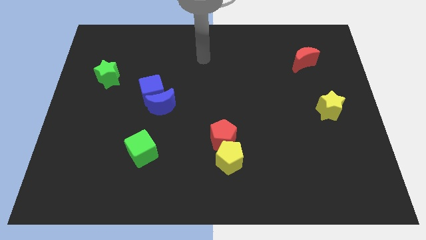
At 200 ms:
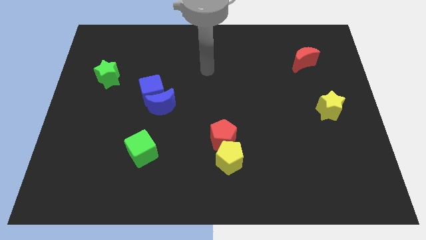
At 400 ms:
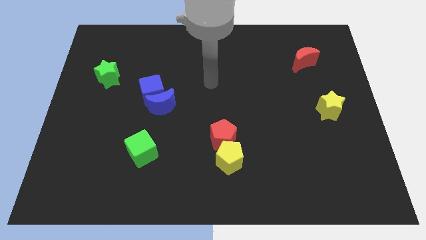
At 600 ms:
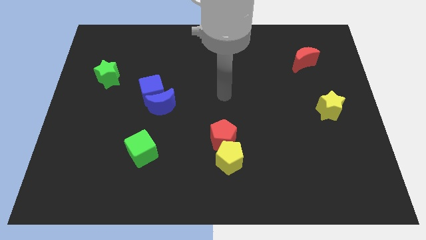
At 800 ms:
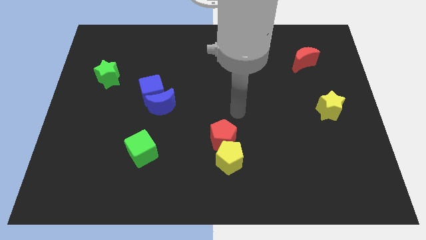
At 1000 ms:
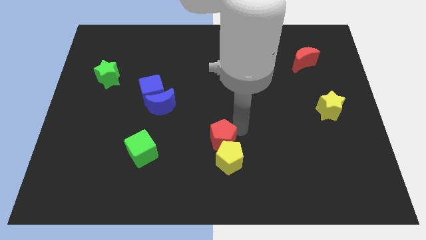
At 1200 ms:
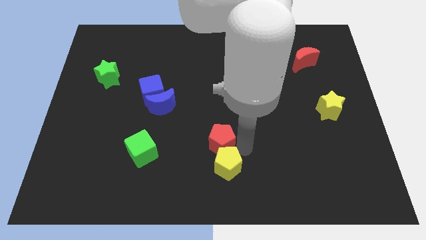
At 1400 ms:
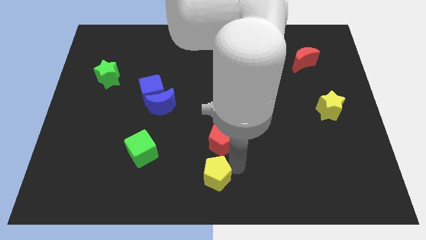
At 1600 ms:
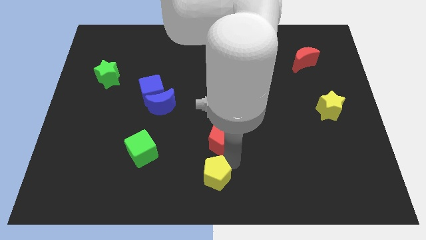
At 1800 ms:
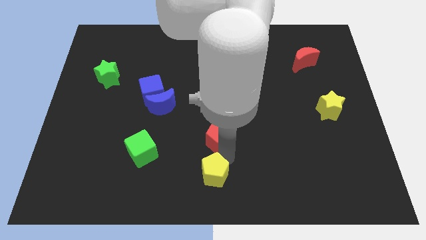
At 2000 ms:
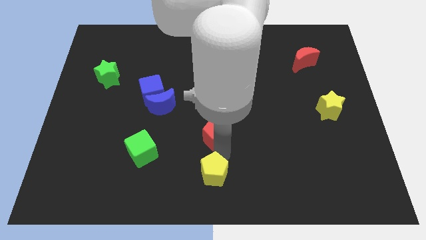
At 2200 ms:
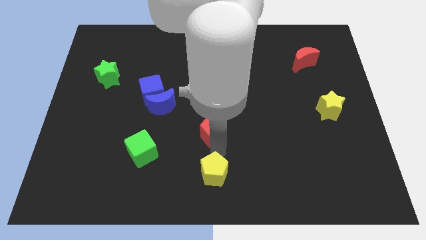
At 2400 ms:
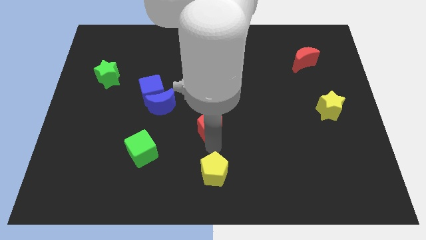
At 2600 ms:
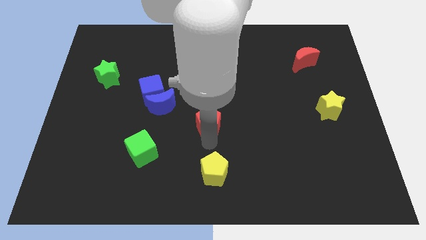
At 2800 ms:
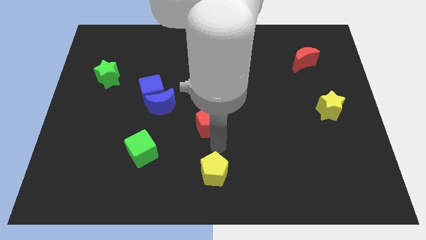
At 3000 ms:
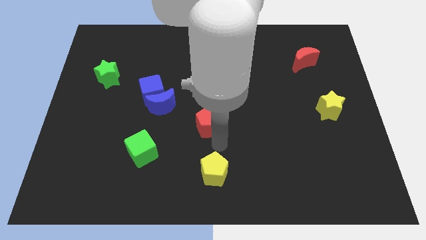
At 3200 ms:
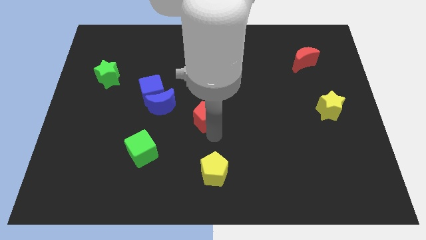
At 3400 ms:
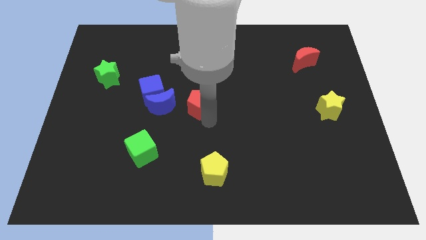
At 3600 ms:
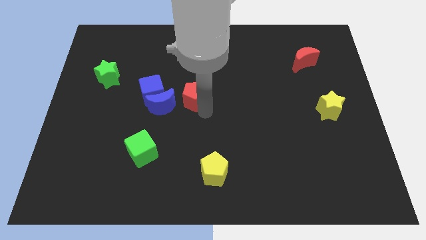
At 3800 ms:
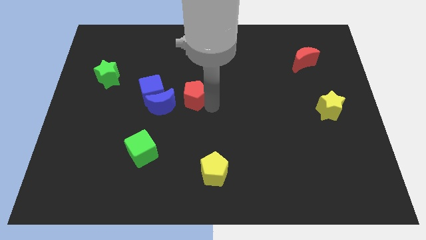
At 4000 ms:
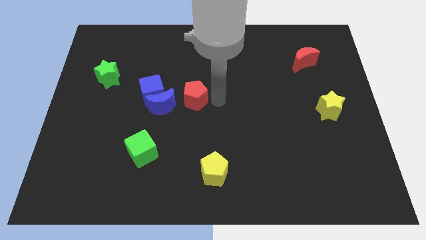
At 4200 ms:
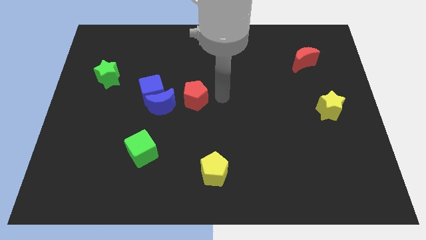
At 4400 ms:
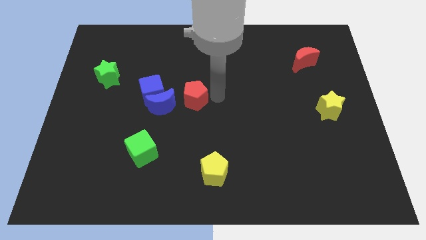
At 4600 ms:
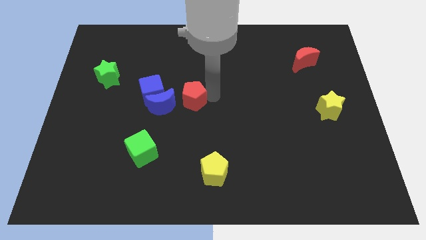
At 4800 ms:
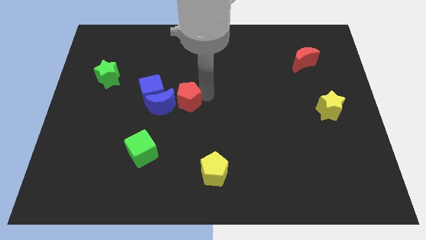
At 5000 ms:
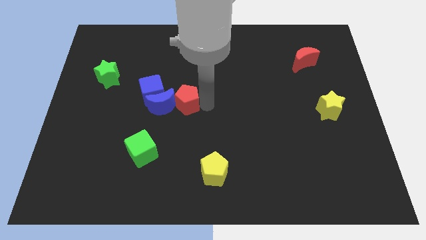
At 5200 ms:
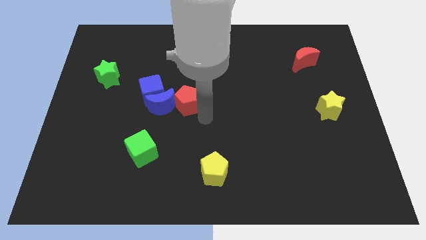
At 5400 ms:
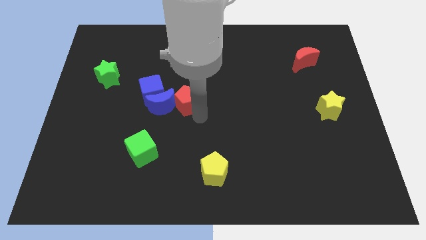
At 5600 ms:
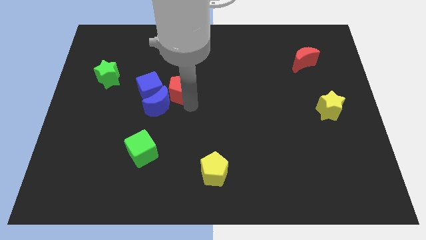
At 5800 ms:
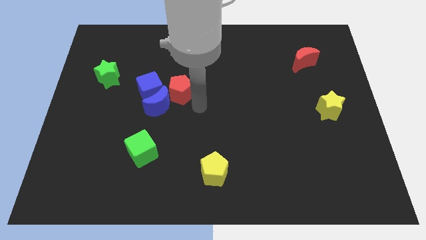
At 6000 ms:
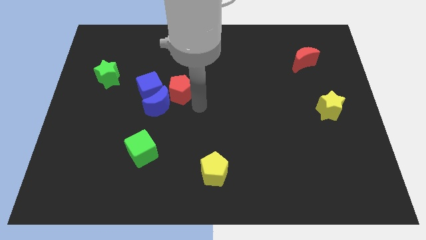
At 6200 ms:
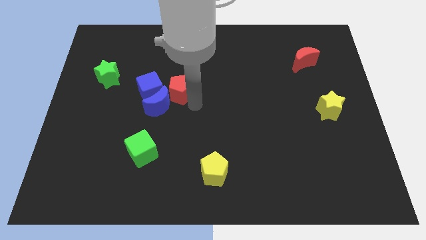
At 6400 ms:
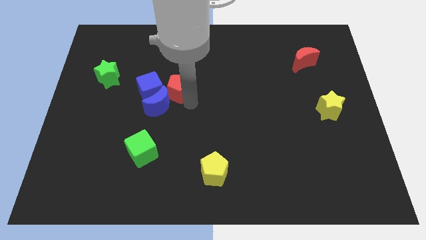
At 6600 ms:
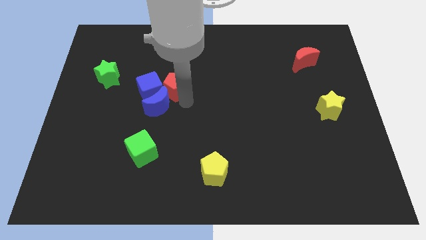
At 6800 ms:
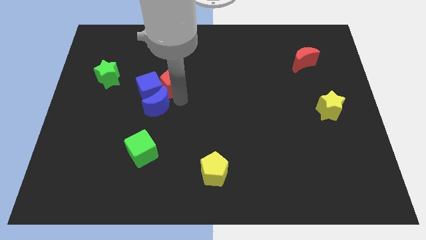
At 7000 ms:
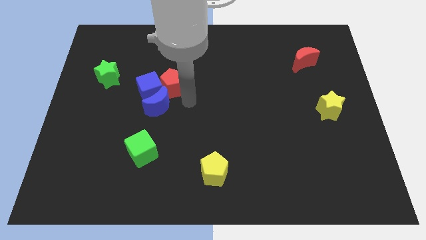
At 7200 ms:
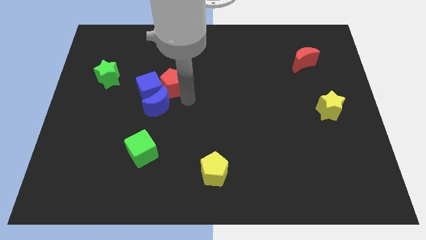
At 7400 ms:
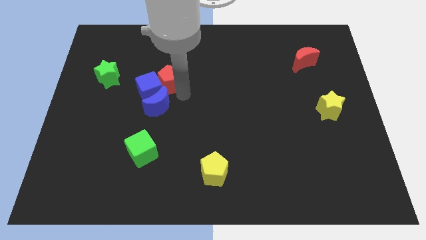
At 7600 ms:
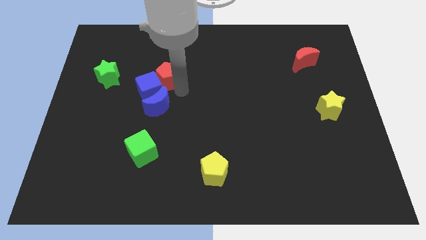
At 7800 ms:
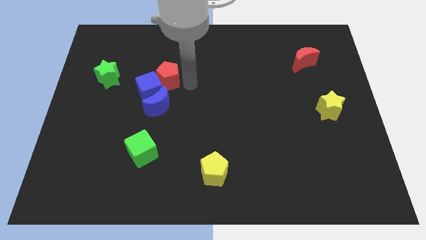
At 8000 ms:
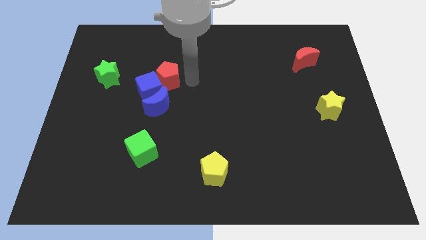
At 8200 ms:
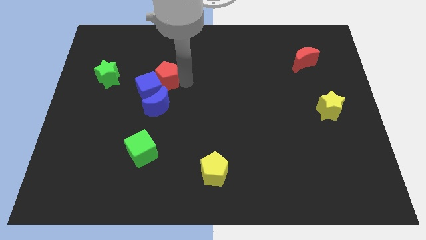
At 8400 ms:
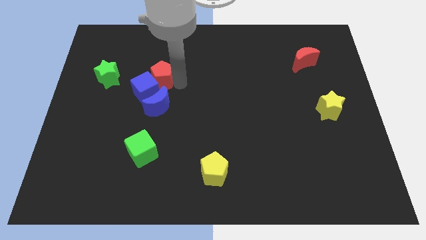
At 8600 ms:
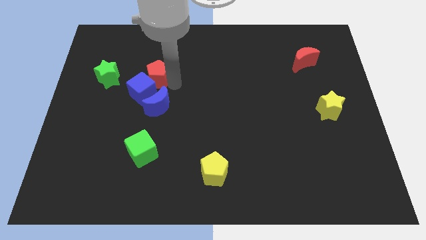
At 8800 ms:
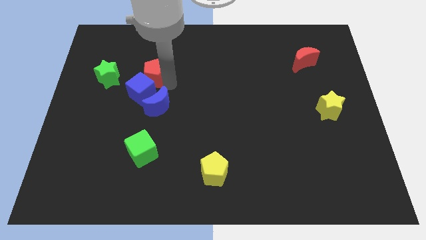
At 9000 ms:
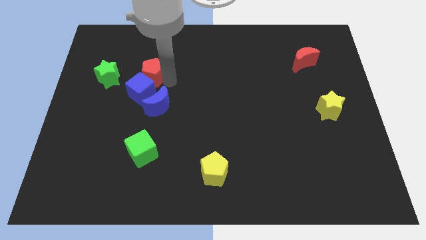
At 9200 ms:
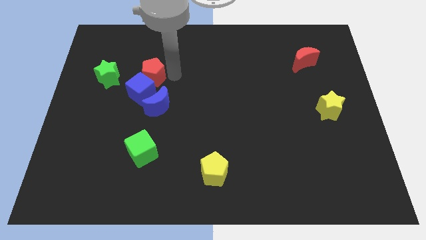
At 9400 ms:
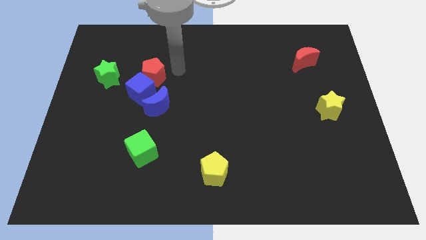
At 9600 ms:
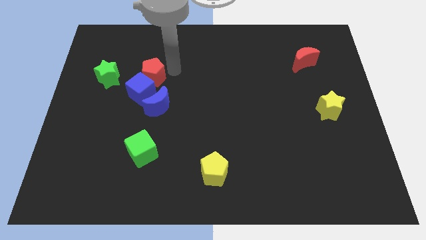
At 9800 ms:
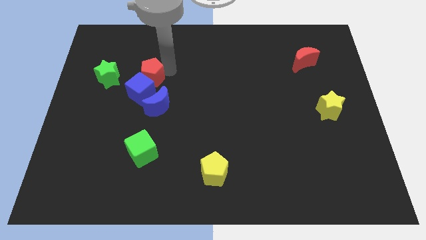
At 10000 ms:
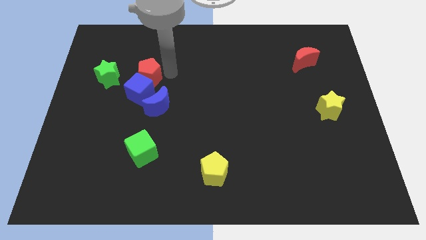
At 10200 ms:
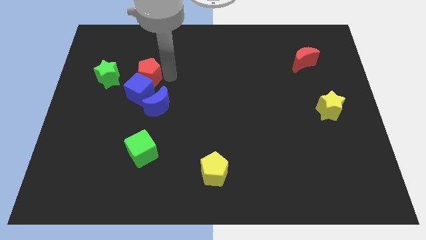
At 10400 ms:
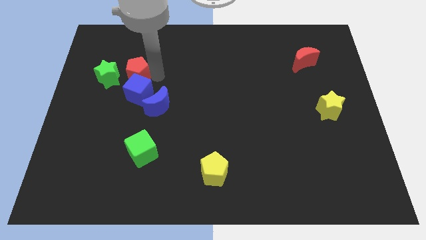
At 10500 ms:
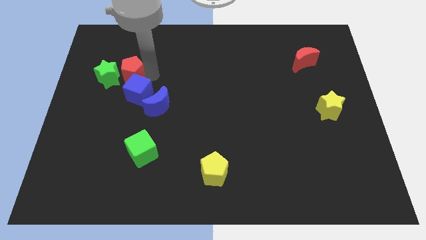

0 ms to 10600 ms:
push the red pentagon to the green star

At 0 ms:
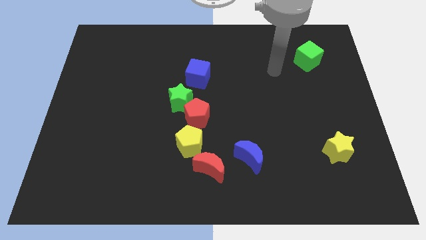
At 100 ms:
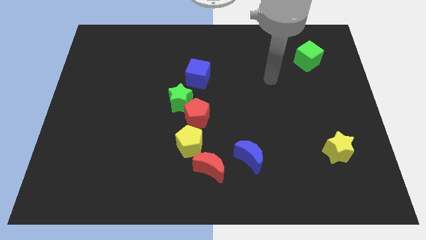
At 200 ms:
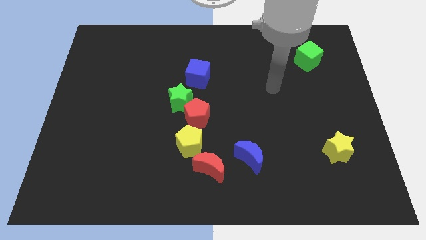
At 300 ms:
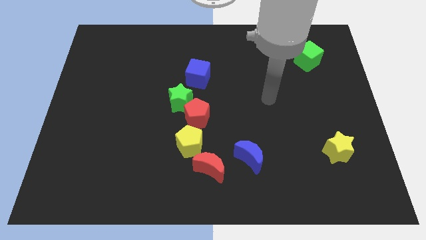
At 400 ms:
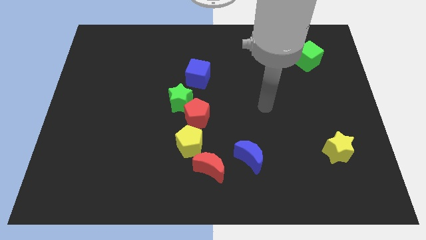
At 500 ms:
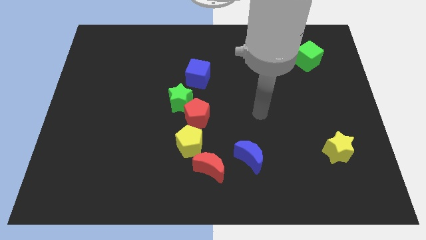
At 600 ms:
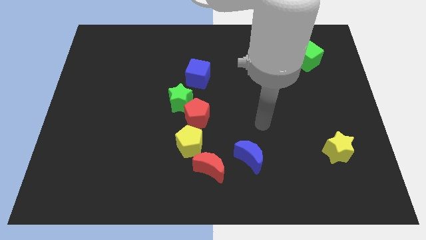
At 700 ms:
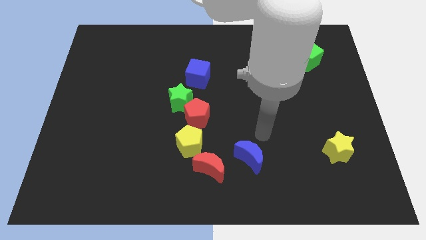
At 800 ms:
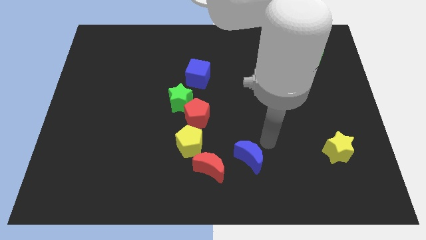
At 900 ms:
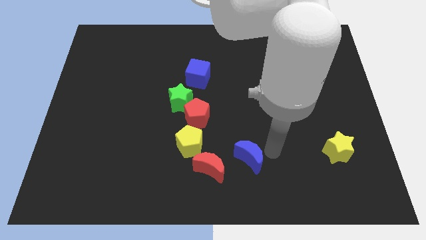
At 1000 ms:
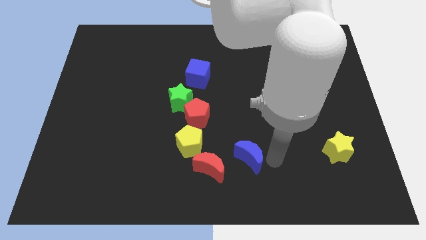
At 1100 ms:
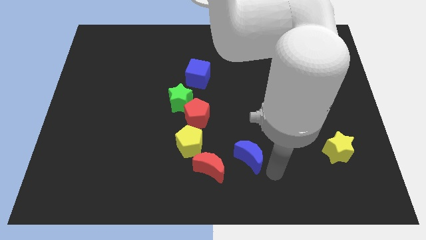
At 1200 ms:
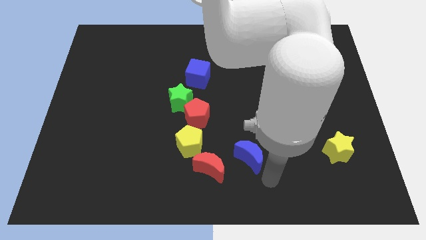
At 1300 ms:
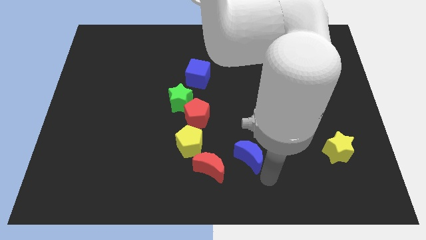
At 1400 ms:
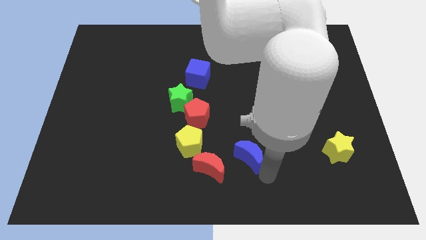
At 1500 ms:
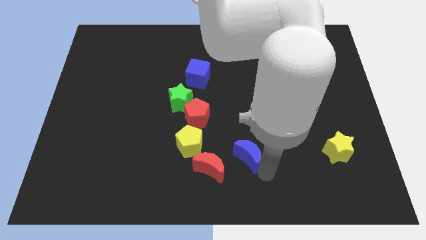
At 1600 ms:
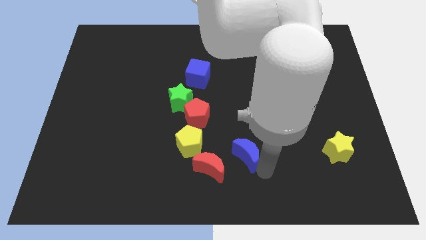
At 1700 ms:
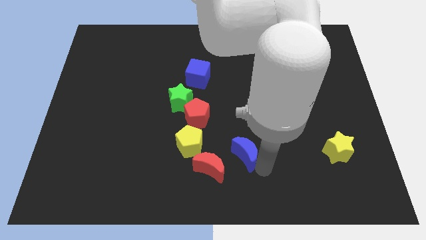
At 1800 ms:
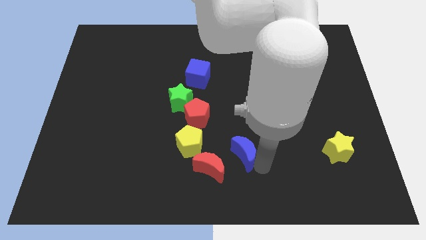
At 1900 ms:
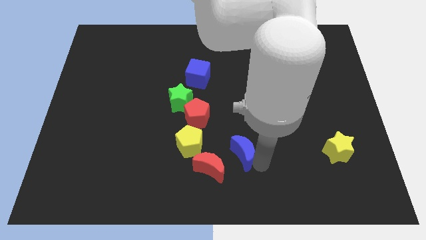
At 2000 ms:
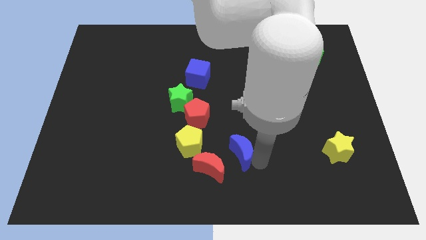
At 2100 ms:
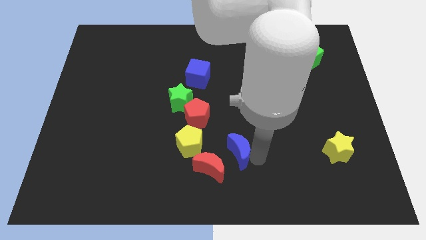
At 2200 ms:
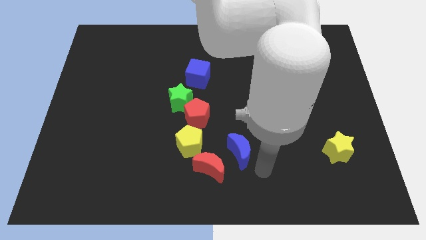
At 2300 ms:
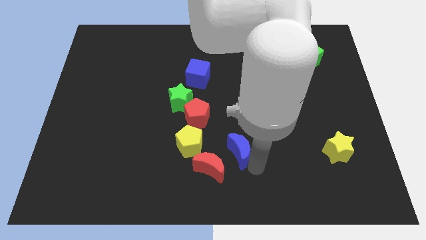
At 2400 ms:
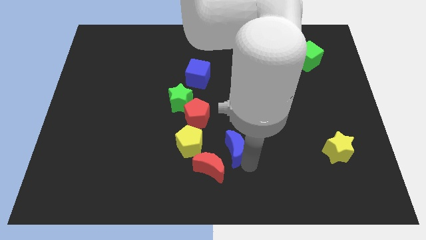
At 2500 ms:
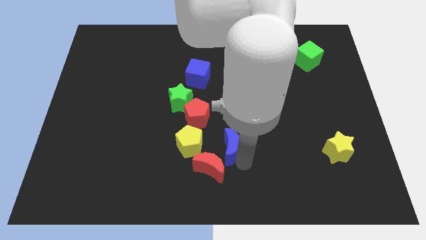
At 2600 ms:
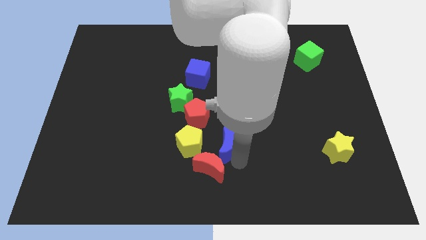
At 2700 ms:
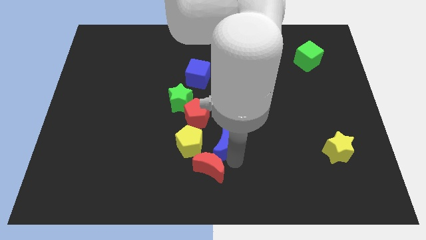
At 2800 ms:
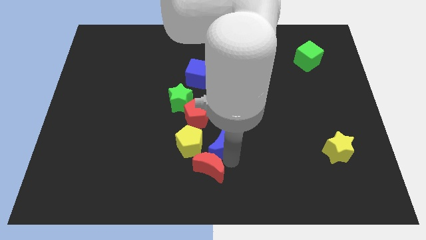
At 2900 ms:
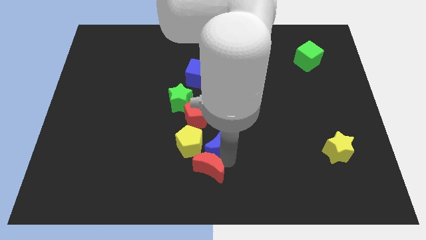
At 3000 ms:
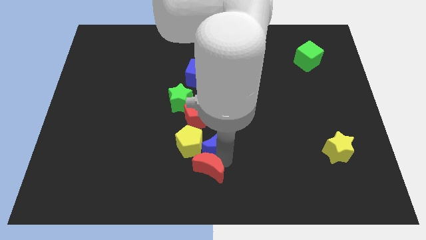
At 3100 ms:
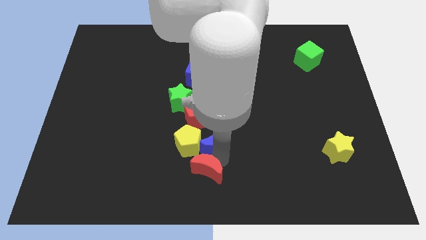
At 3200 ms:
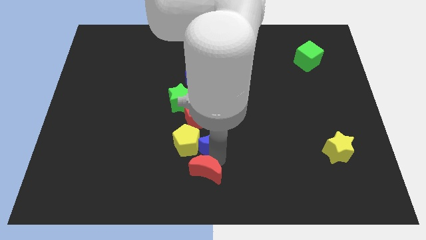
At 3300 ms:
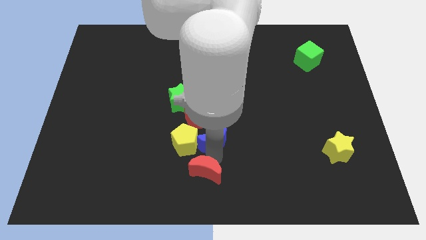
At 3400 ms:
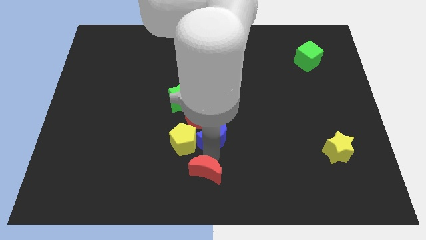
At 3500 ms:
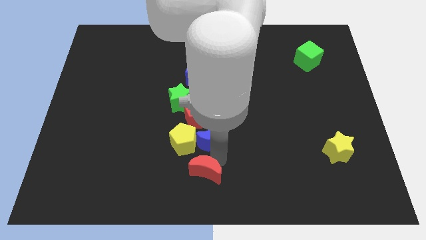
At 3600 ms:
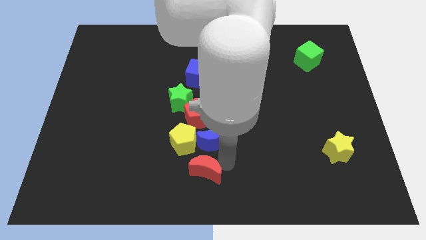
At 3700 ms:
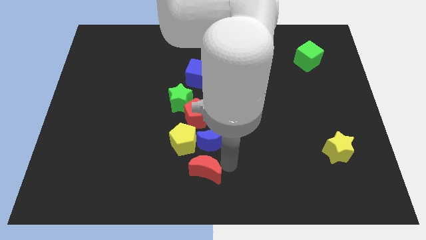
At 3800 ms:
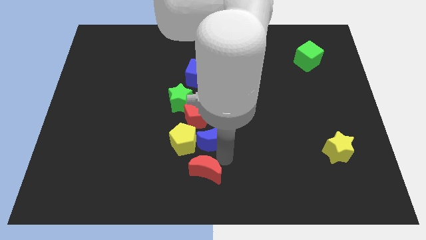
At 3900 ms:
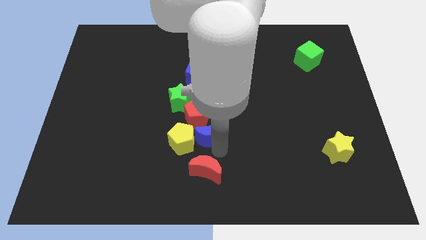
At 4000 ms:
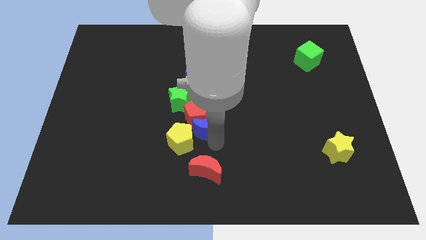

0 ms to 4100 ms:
move the blue moon close to the red pentagon
